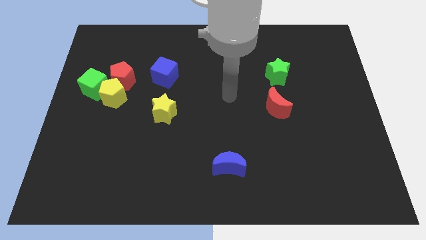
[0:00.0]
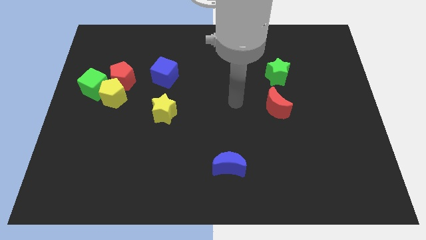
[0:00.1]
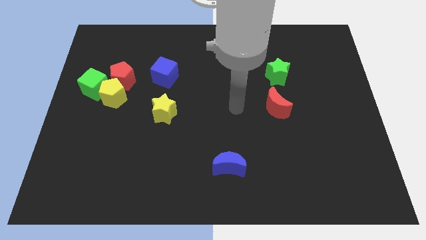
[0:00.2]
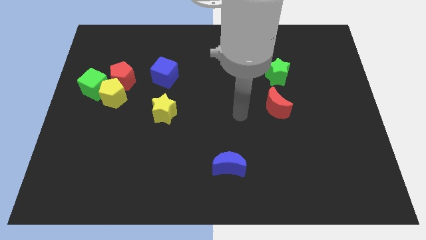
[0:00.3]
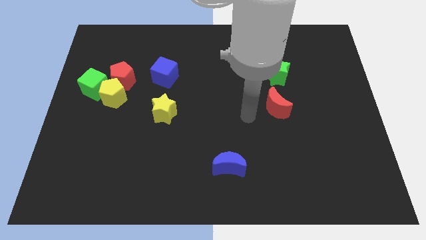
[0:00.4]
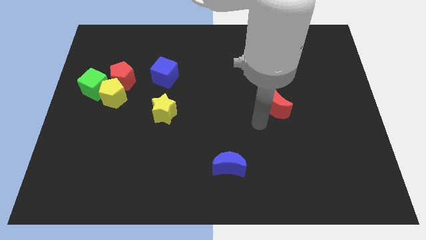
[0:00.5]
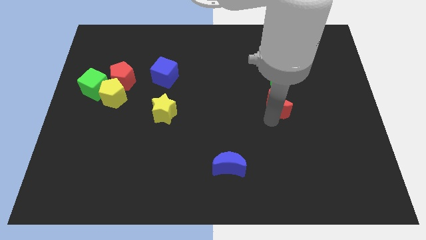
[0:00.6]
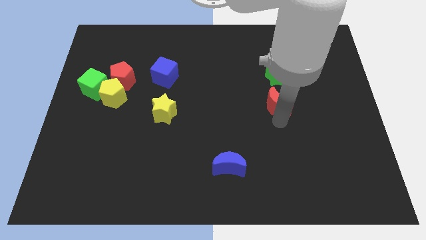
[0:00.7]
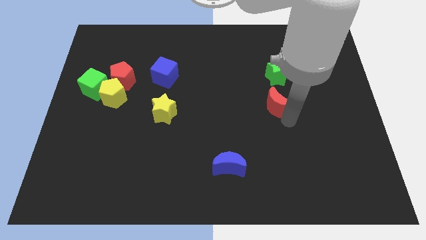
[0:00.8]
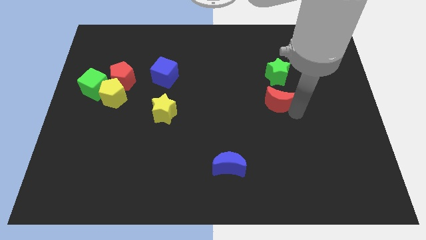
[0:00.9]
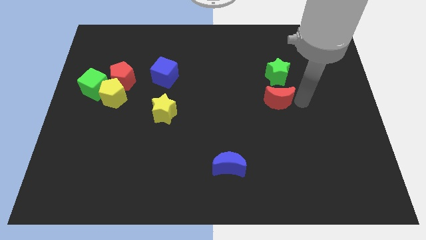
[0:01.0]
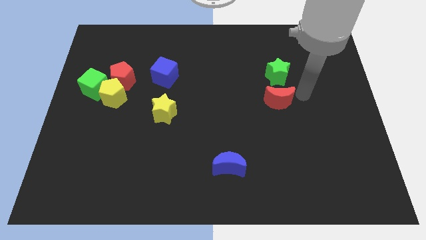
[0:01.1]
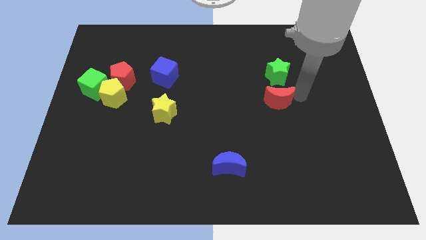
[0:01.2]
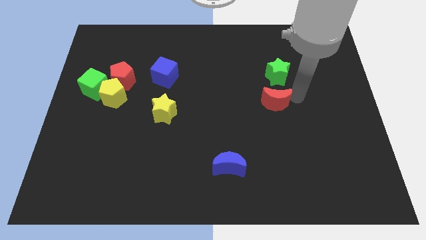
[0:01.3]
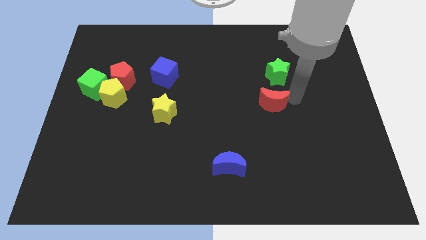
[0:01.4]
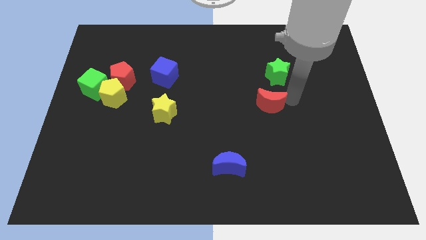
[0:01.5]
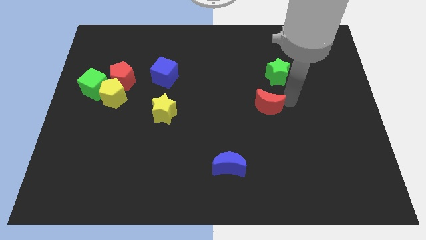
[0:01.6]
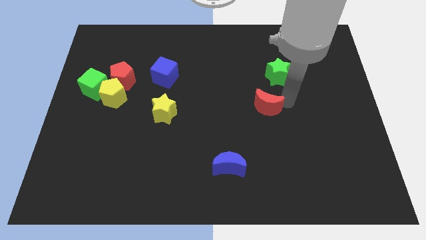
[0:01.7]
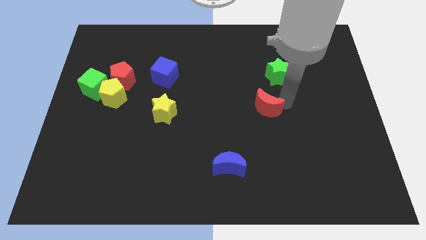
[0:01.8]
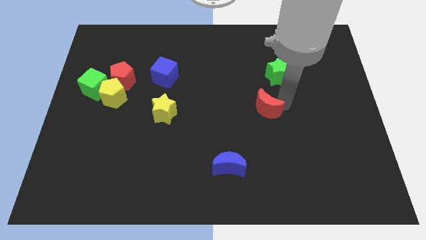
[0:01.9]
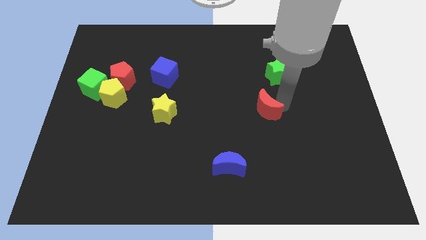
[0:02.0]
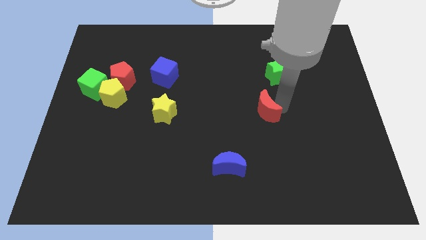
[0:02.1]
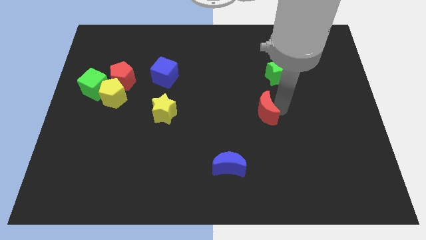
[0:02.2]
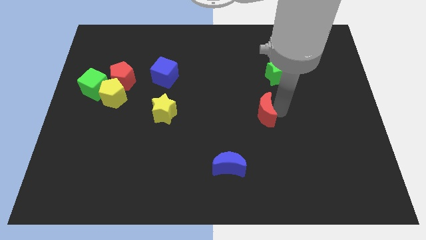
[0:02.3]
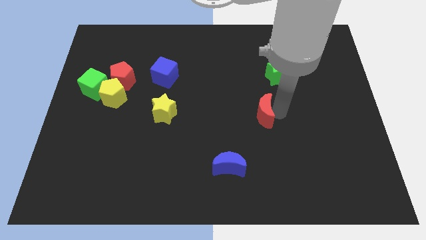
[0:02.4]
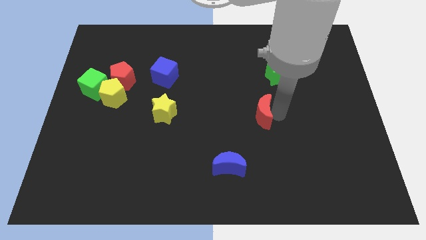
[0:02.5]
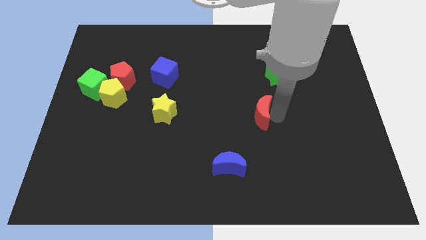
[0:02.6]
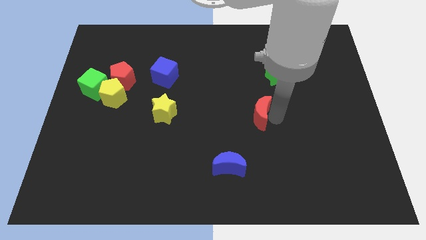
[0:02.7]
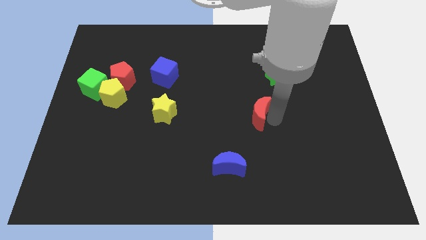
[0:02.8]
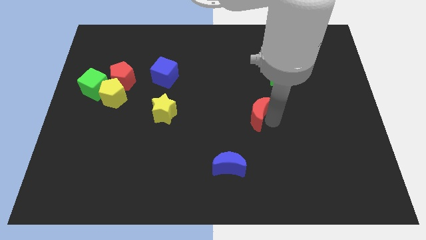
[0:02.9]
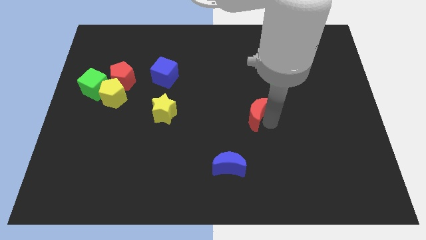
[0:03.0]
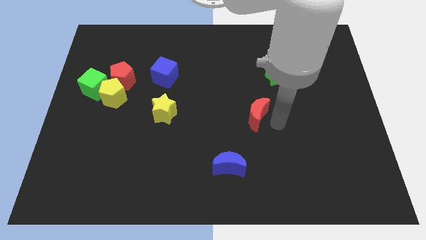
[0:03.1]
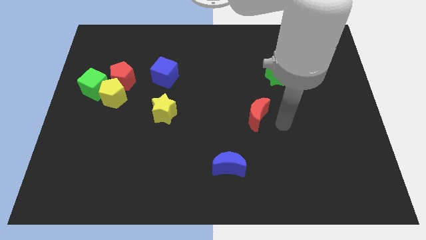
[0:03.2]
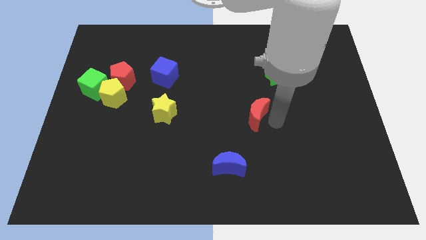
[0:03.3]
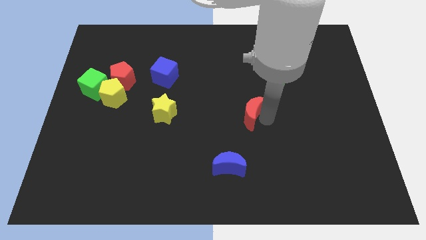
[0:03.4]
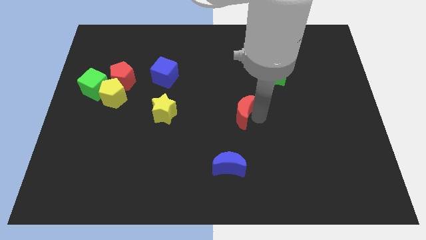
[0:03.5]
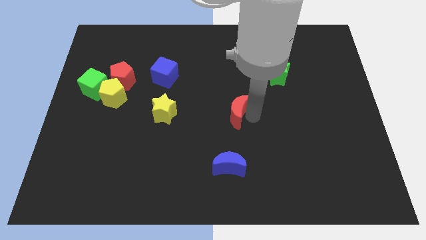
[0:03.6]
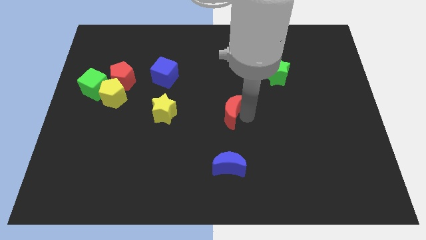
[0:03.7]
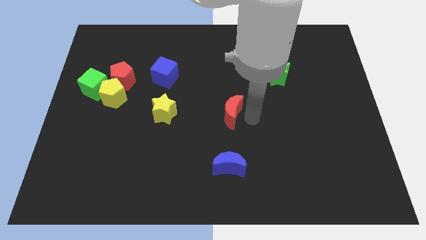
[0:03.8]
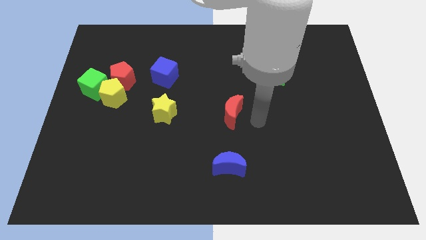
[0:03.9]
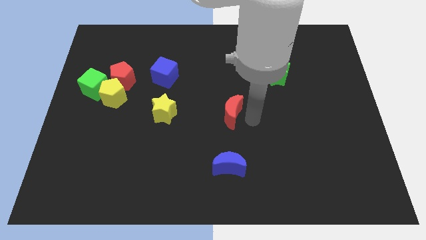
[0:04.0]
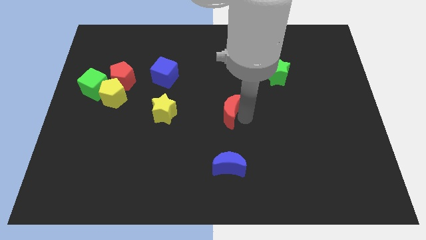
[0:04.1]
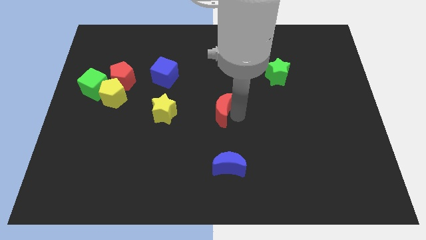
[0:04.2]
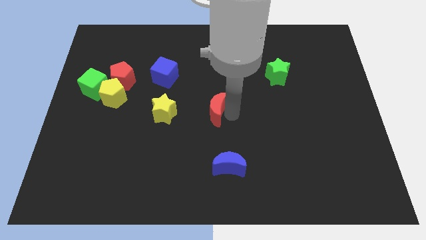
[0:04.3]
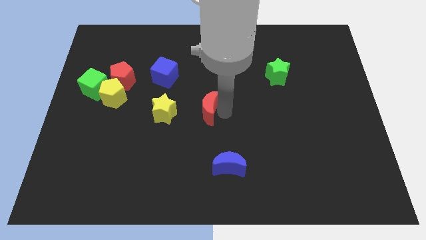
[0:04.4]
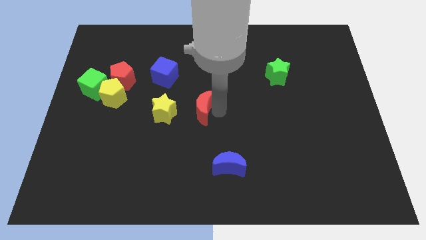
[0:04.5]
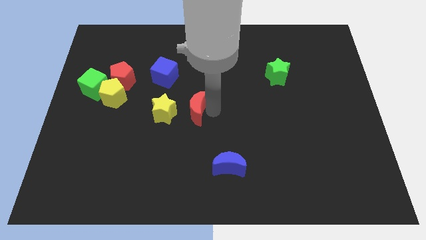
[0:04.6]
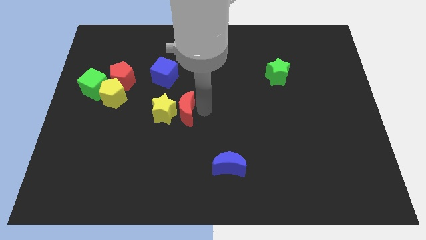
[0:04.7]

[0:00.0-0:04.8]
push the red moon next to the yellow star

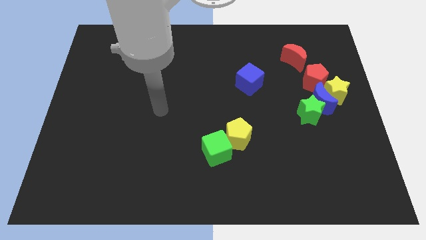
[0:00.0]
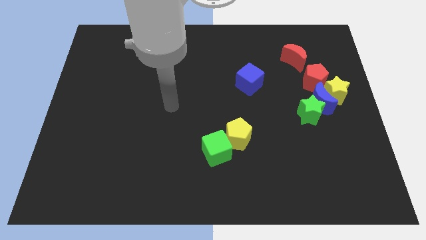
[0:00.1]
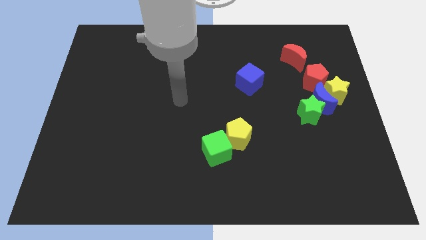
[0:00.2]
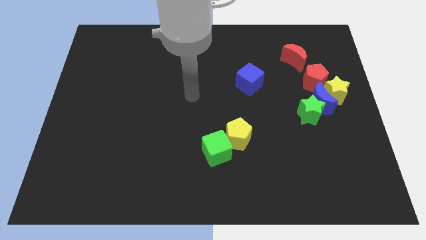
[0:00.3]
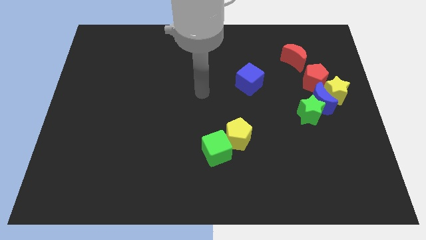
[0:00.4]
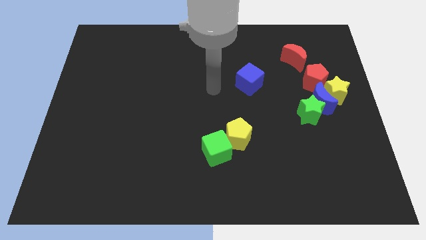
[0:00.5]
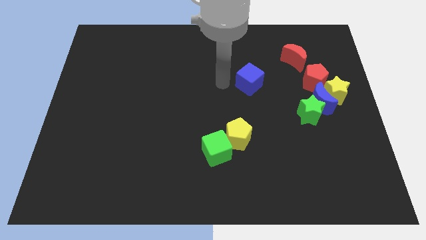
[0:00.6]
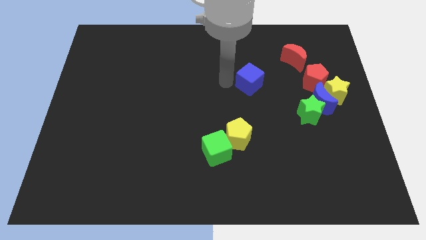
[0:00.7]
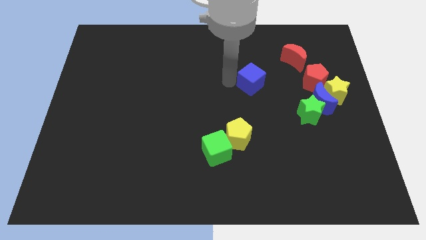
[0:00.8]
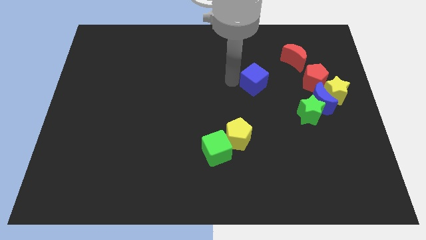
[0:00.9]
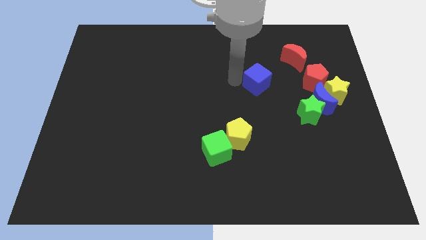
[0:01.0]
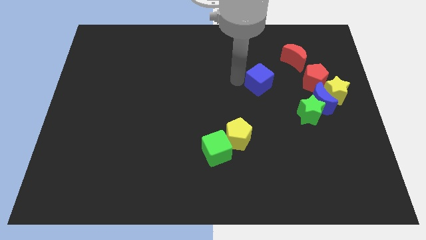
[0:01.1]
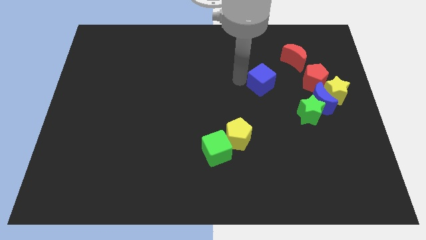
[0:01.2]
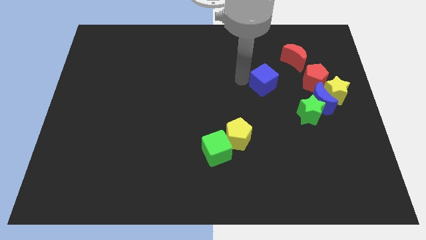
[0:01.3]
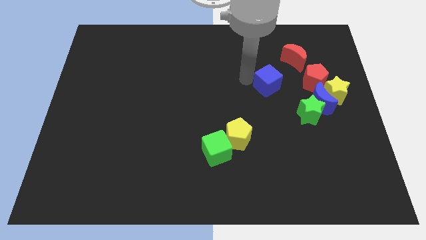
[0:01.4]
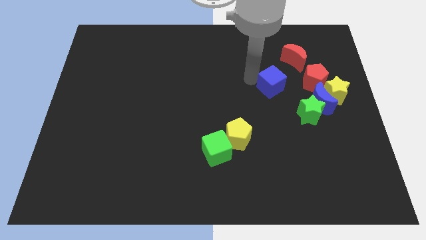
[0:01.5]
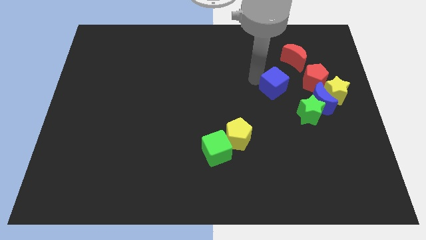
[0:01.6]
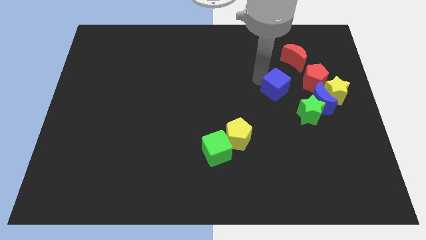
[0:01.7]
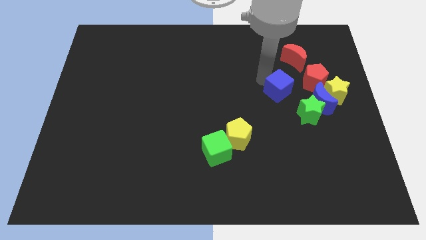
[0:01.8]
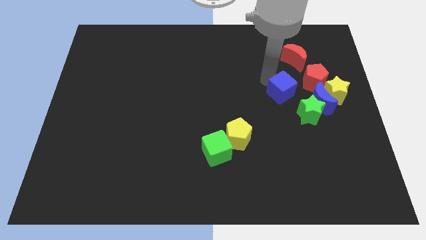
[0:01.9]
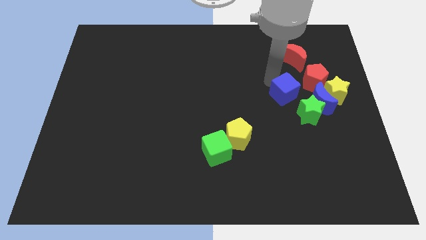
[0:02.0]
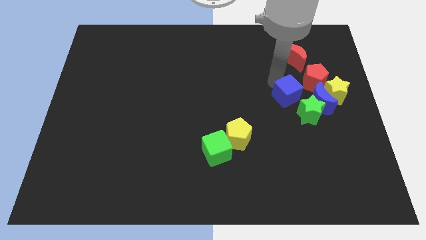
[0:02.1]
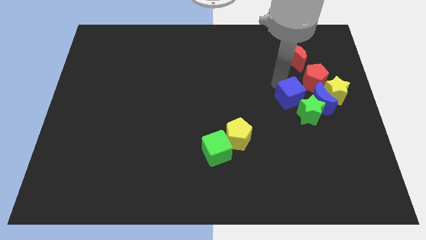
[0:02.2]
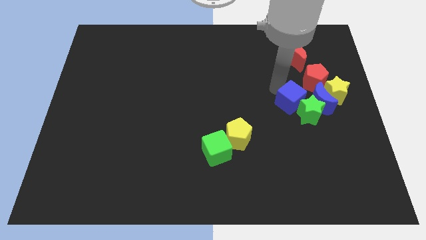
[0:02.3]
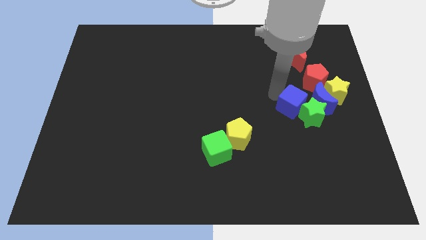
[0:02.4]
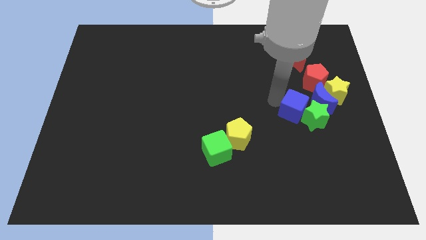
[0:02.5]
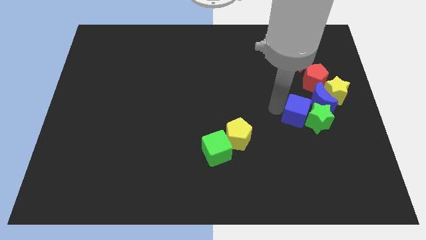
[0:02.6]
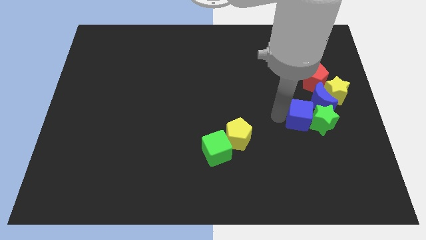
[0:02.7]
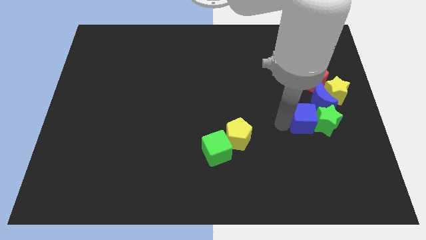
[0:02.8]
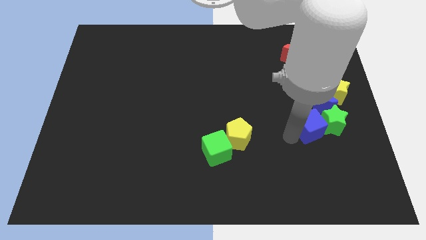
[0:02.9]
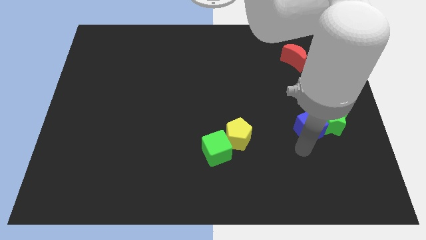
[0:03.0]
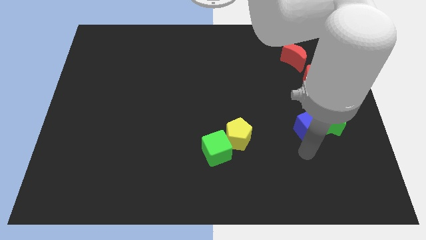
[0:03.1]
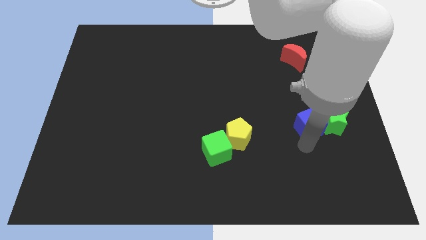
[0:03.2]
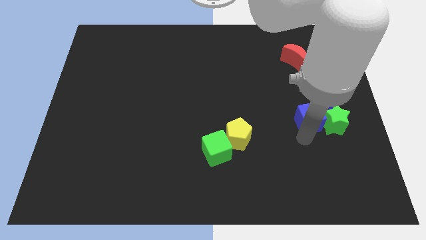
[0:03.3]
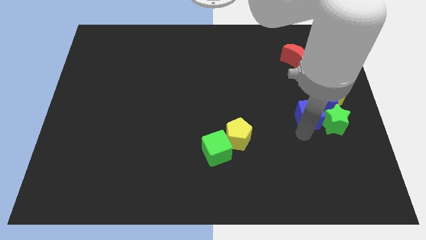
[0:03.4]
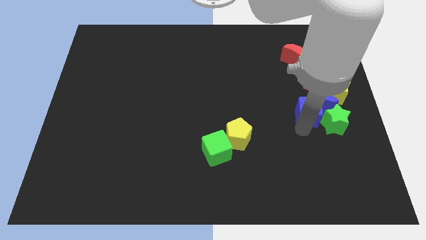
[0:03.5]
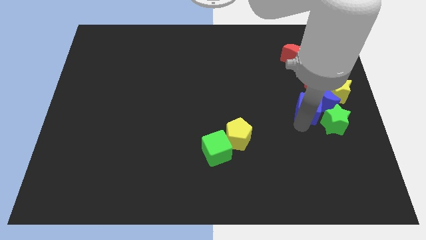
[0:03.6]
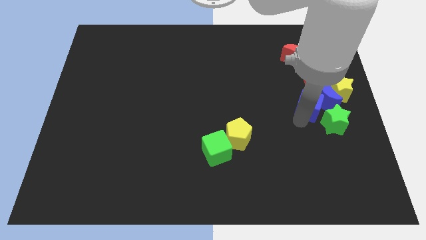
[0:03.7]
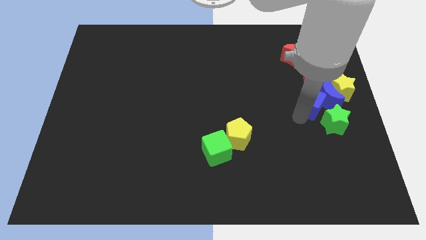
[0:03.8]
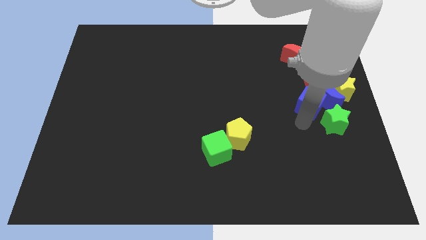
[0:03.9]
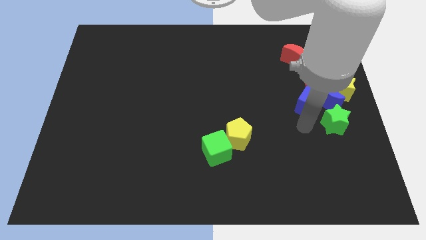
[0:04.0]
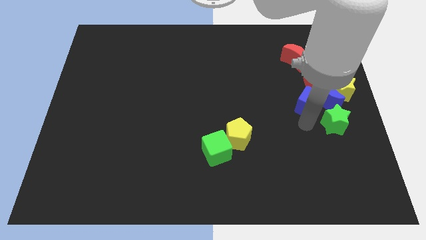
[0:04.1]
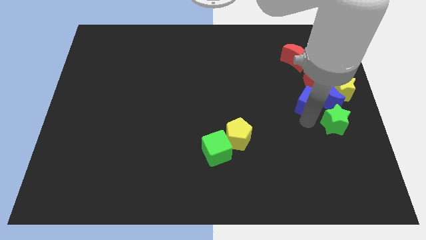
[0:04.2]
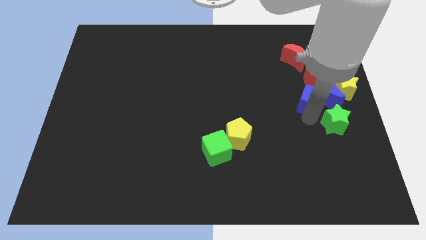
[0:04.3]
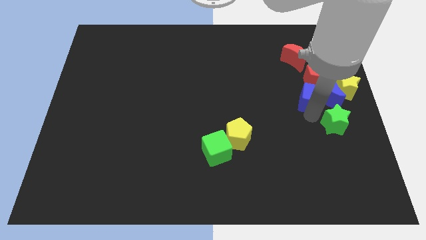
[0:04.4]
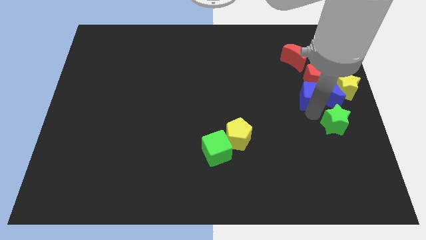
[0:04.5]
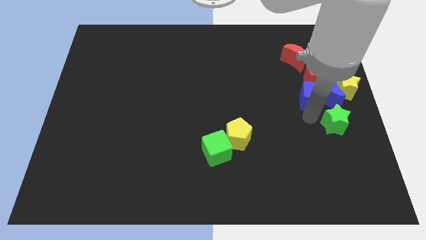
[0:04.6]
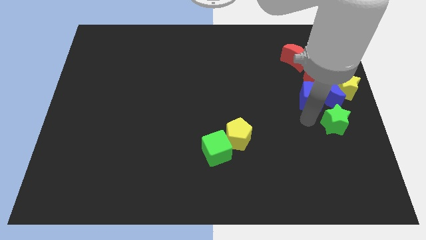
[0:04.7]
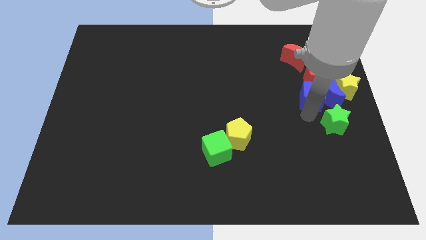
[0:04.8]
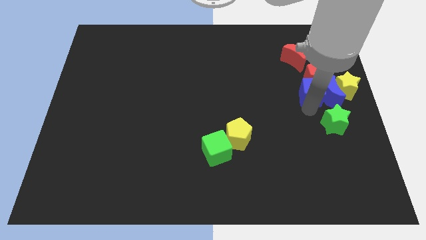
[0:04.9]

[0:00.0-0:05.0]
slide the blue cube to the red pentagon
